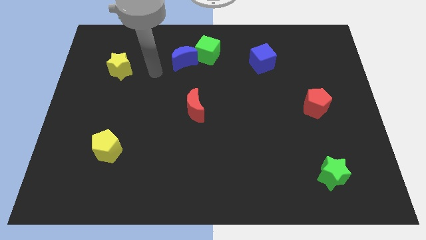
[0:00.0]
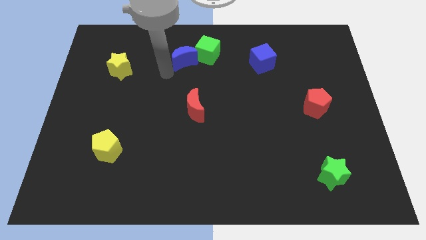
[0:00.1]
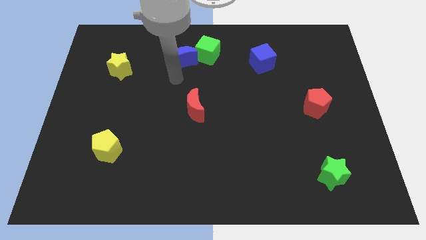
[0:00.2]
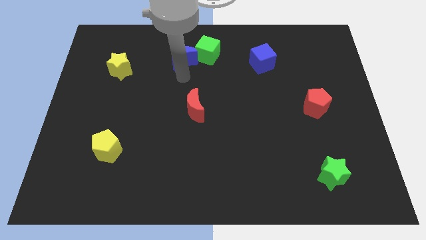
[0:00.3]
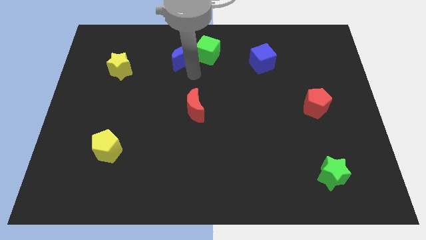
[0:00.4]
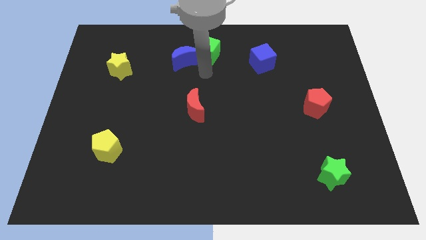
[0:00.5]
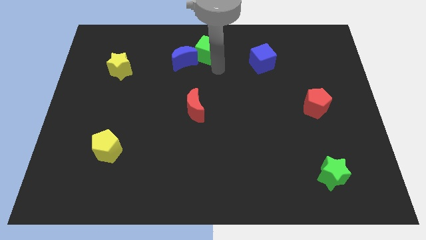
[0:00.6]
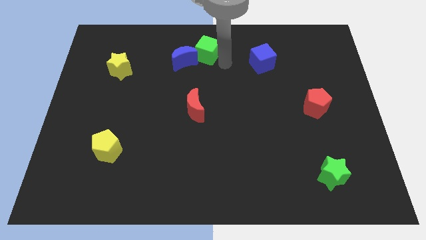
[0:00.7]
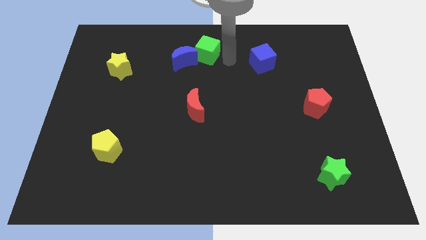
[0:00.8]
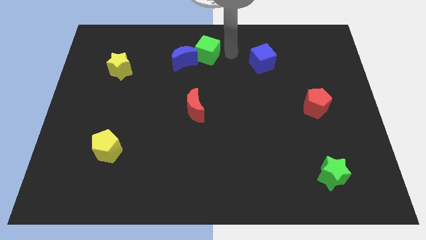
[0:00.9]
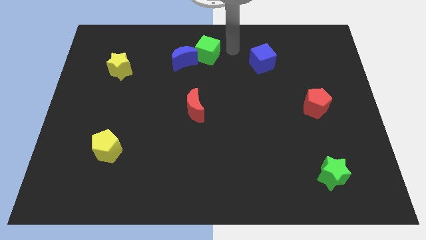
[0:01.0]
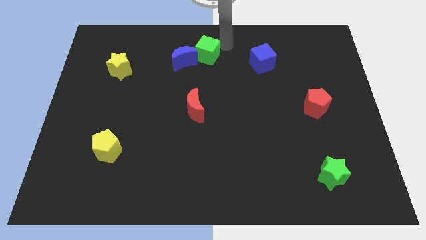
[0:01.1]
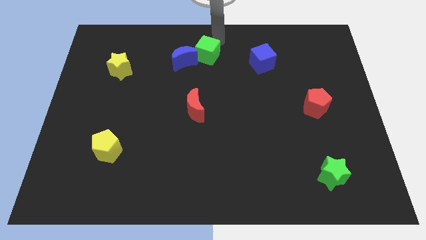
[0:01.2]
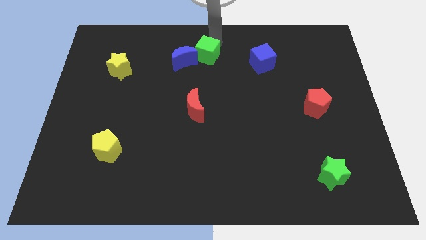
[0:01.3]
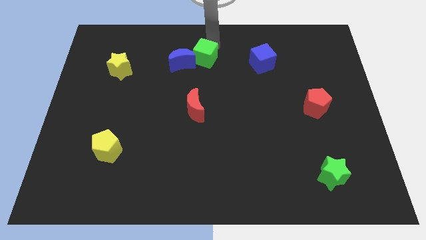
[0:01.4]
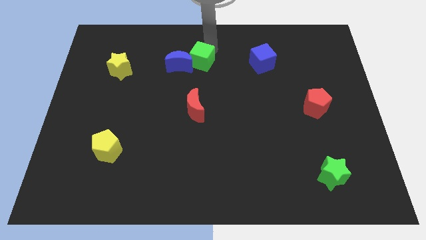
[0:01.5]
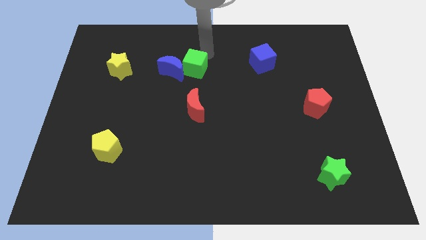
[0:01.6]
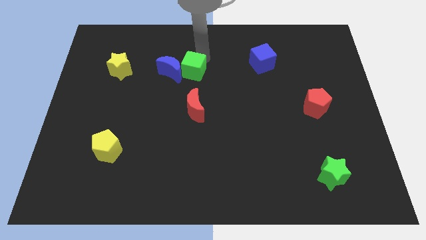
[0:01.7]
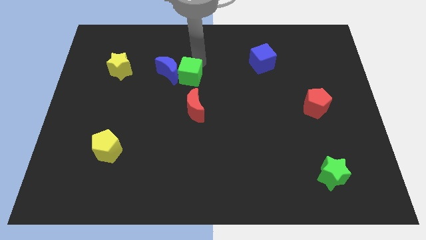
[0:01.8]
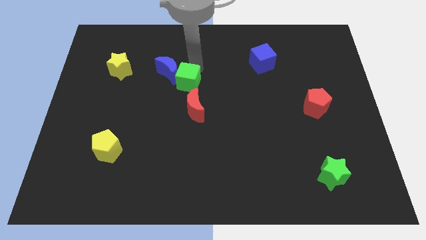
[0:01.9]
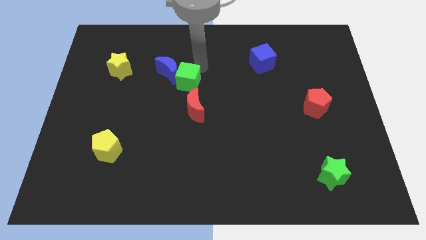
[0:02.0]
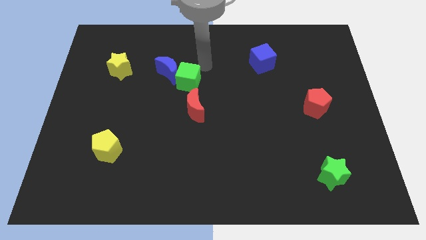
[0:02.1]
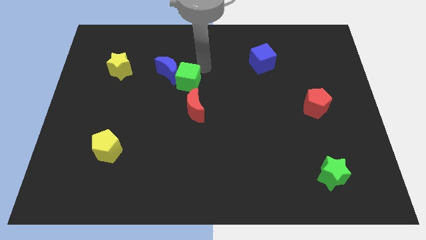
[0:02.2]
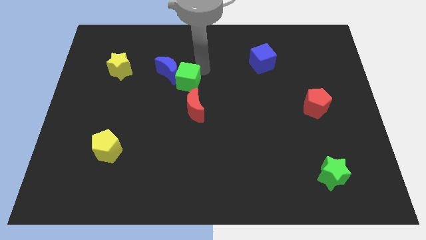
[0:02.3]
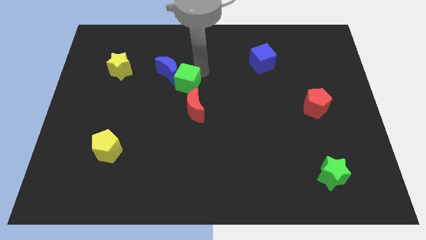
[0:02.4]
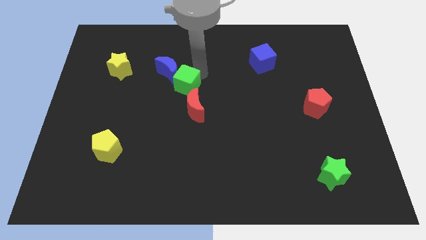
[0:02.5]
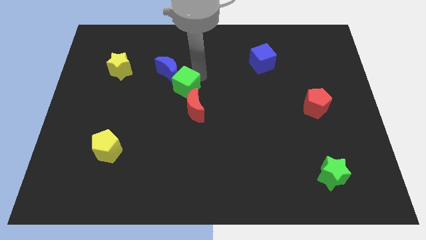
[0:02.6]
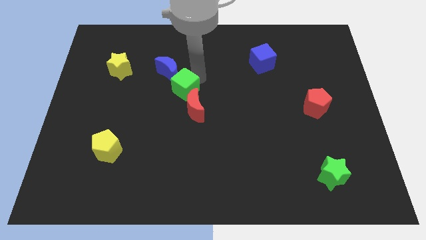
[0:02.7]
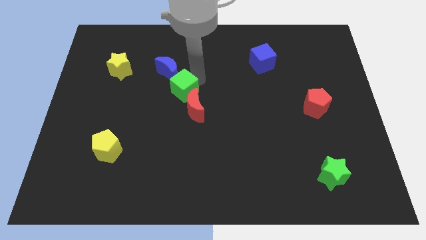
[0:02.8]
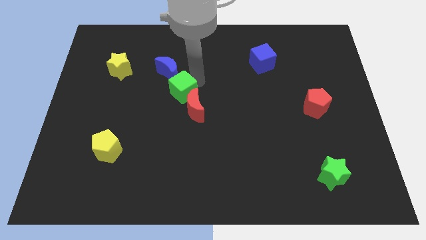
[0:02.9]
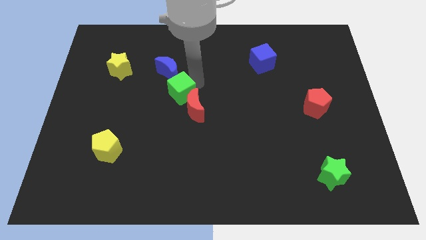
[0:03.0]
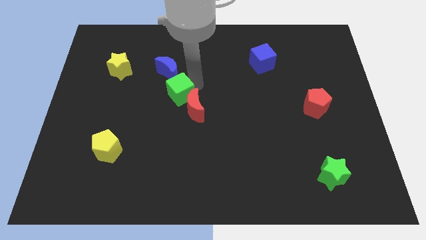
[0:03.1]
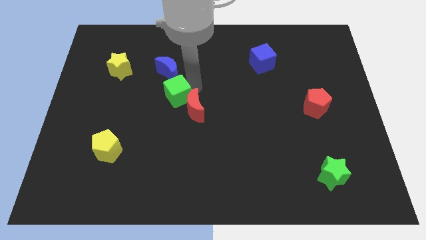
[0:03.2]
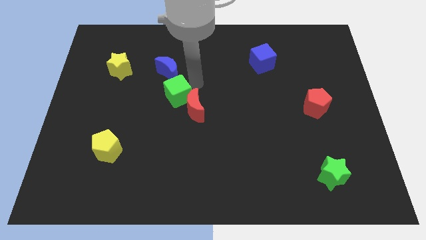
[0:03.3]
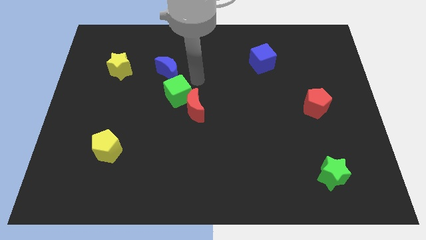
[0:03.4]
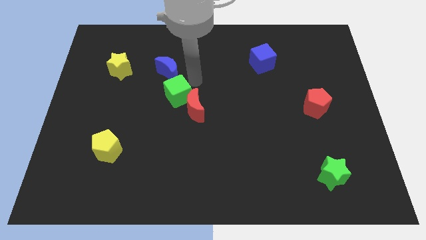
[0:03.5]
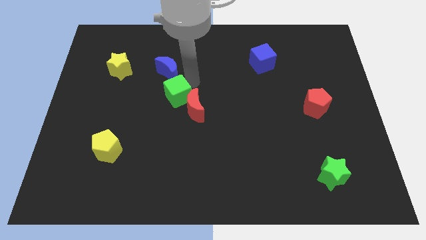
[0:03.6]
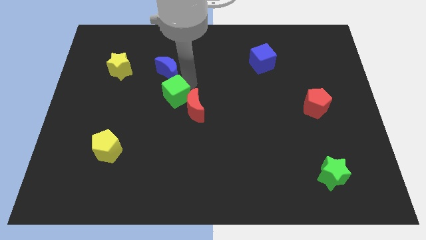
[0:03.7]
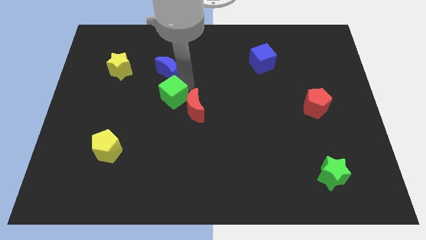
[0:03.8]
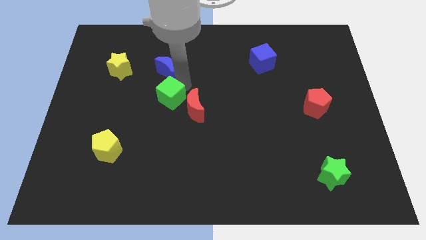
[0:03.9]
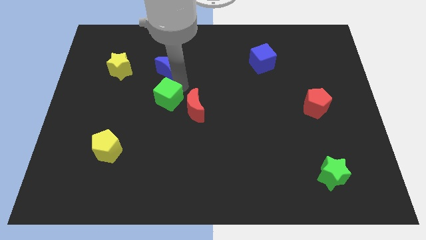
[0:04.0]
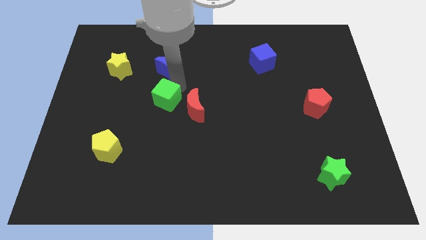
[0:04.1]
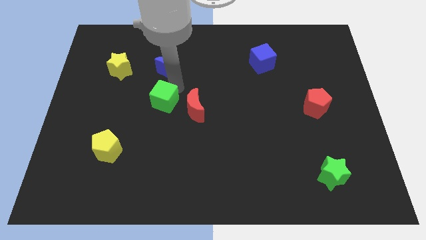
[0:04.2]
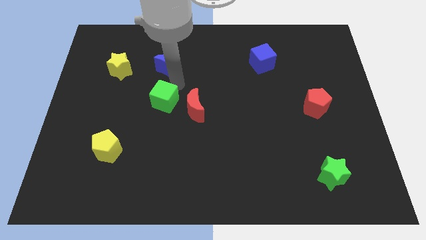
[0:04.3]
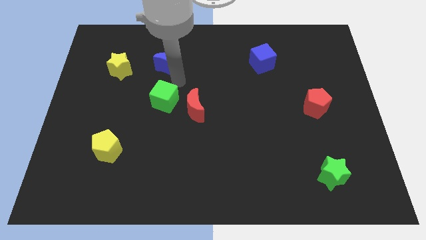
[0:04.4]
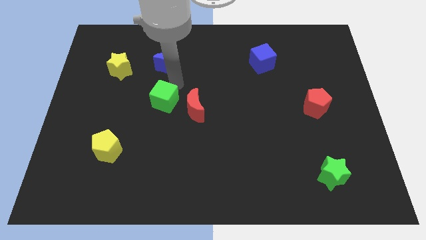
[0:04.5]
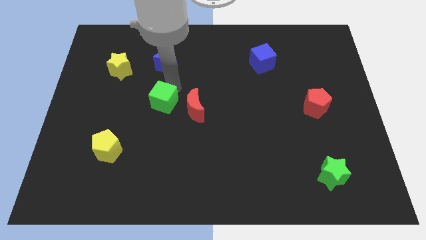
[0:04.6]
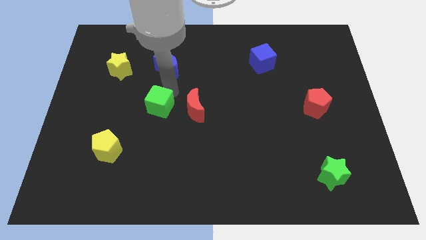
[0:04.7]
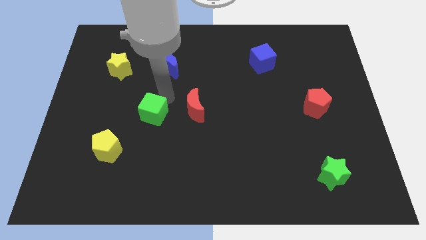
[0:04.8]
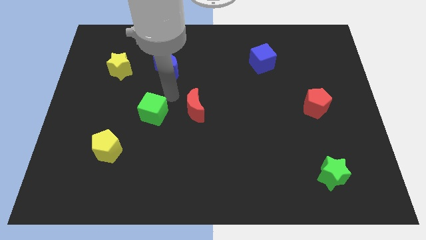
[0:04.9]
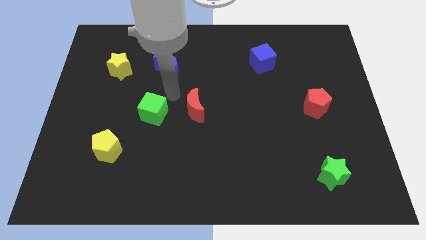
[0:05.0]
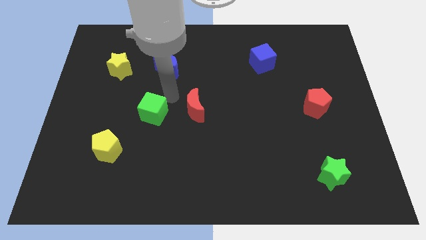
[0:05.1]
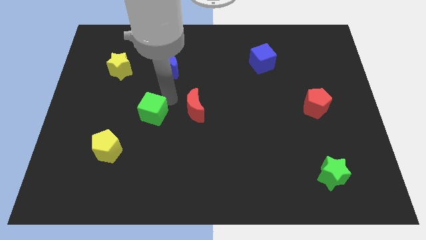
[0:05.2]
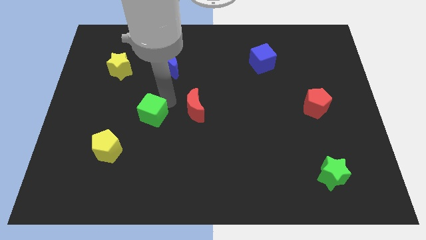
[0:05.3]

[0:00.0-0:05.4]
slide the green cube to the top right of the yellow pentagon
